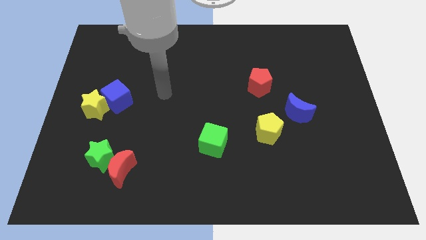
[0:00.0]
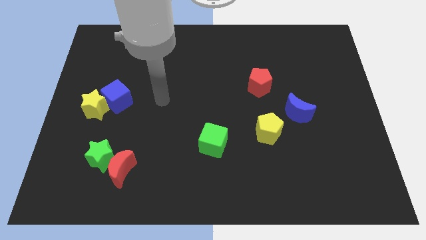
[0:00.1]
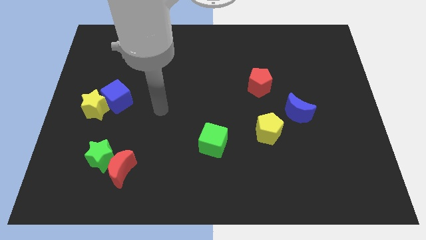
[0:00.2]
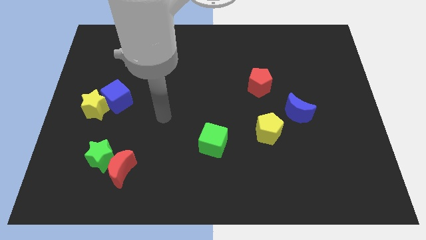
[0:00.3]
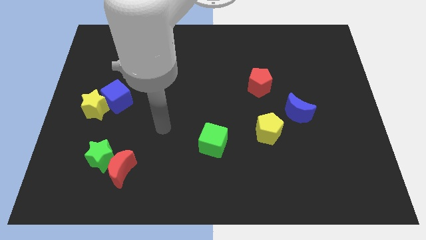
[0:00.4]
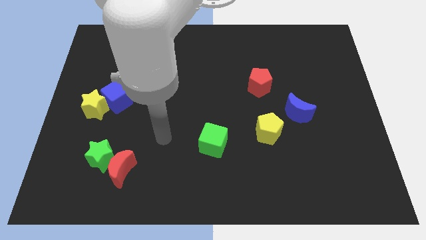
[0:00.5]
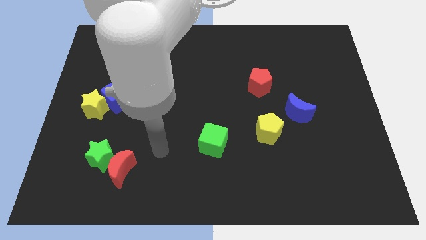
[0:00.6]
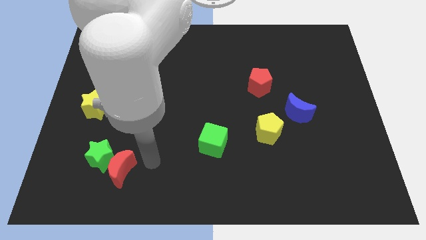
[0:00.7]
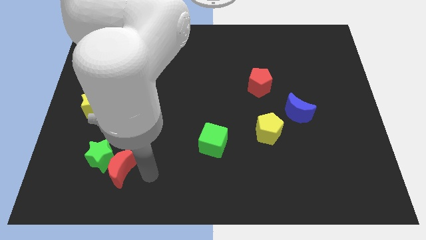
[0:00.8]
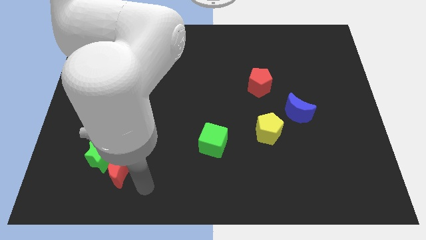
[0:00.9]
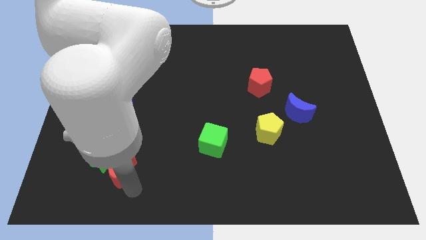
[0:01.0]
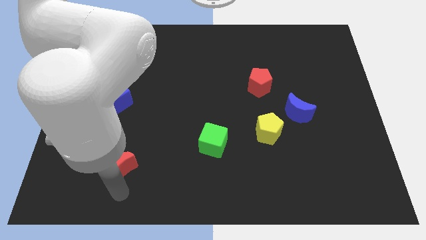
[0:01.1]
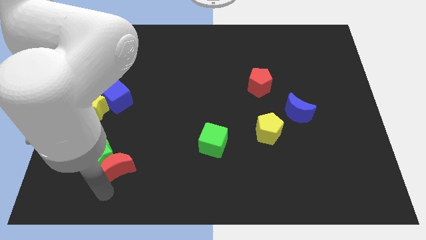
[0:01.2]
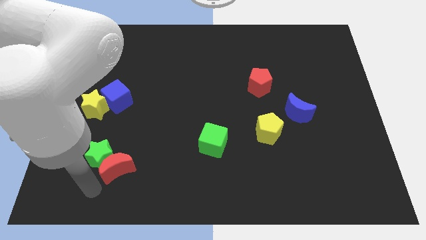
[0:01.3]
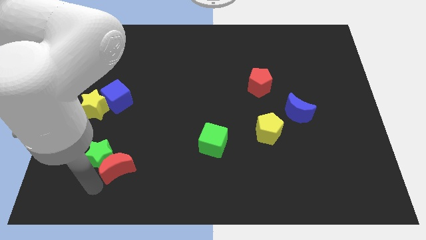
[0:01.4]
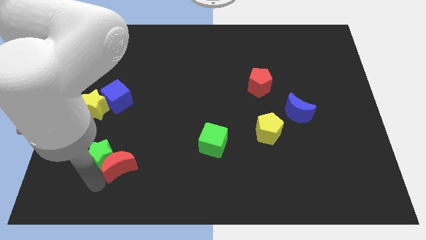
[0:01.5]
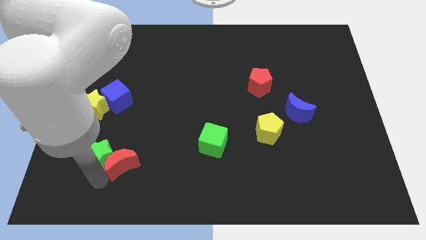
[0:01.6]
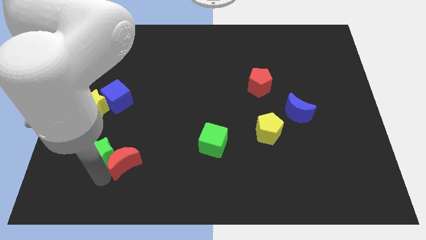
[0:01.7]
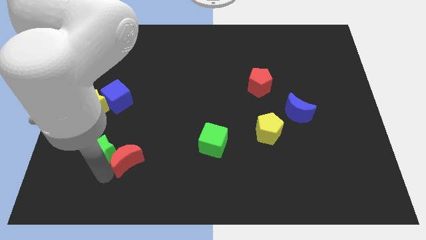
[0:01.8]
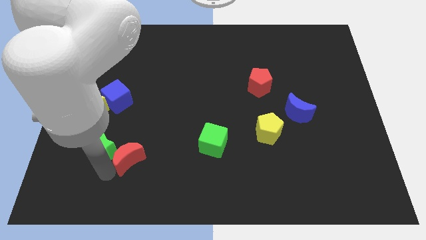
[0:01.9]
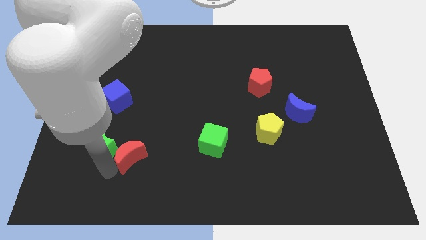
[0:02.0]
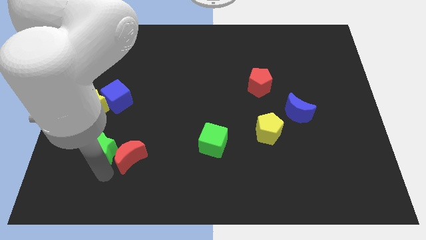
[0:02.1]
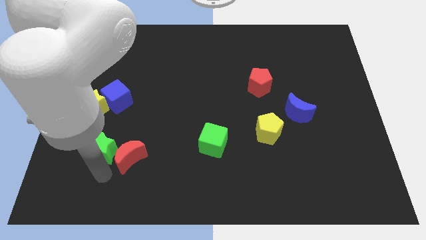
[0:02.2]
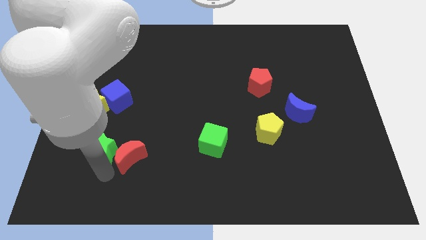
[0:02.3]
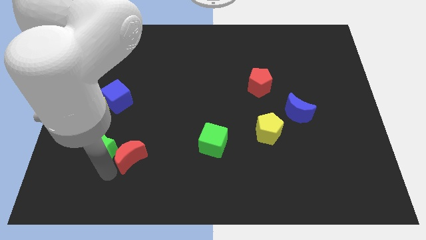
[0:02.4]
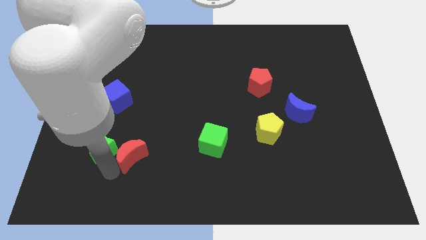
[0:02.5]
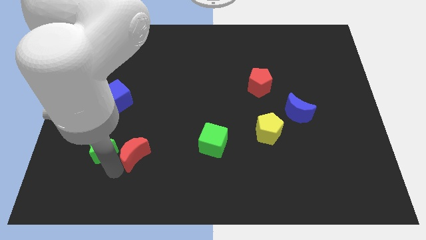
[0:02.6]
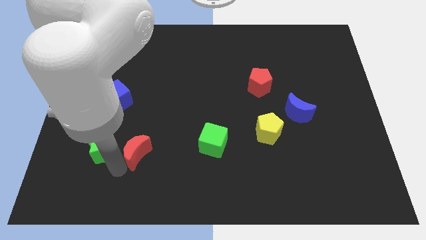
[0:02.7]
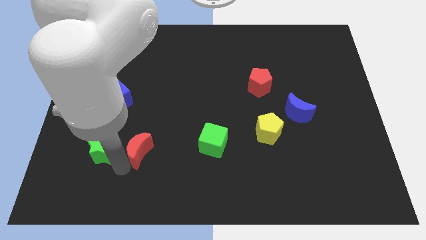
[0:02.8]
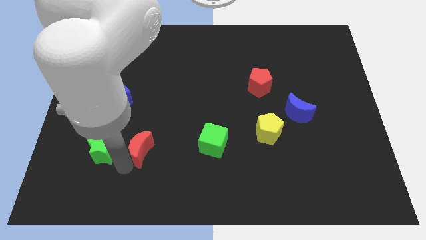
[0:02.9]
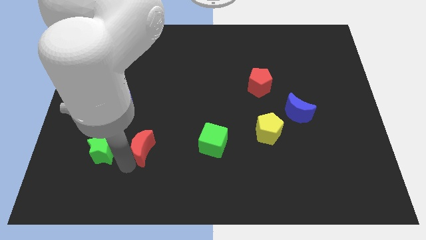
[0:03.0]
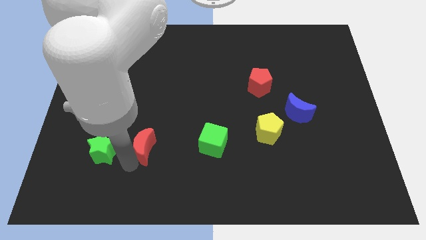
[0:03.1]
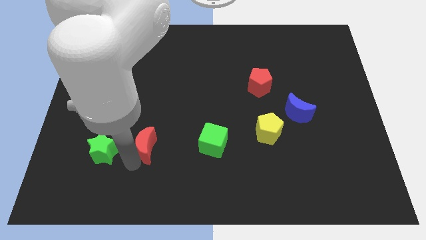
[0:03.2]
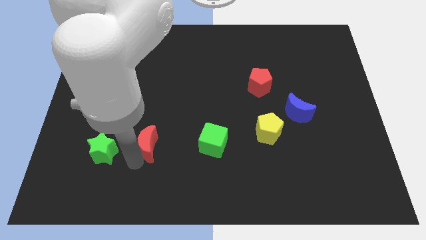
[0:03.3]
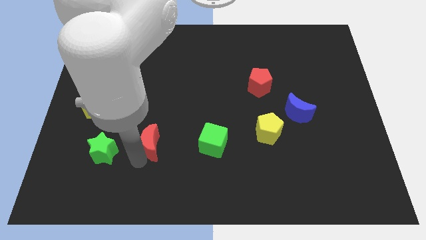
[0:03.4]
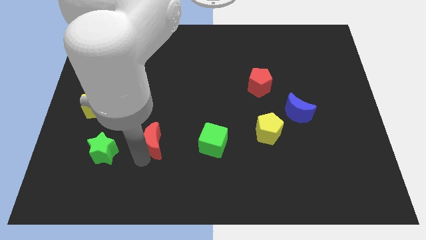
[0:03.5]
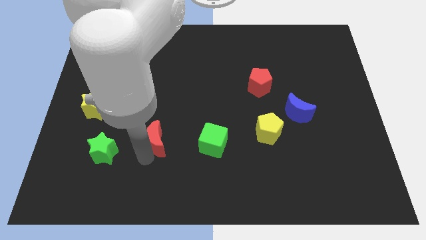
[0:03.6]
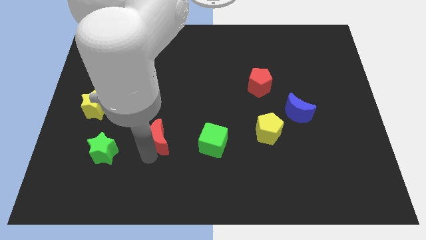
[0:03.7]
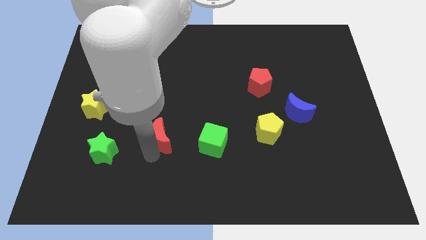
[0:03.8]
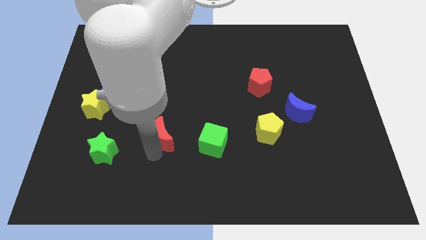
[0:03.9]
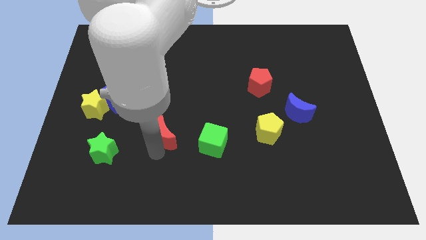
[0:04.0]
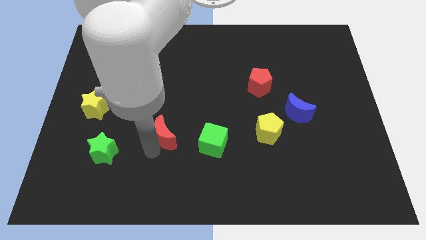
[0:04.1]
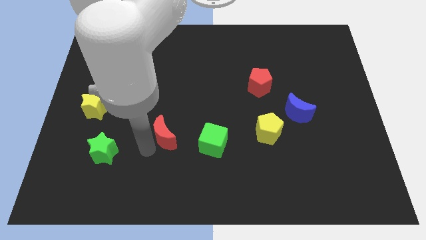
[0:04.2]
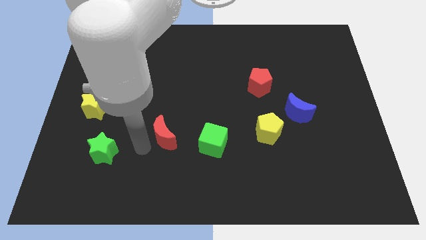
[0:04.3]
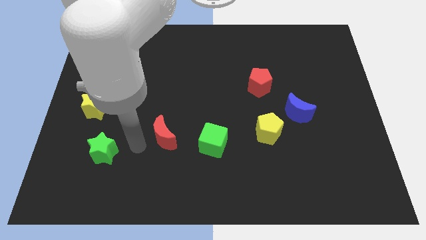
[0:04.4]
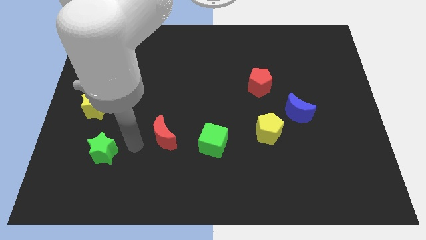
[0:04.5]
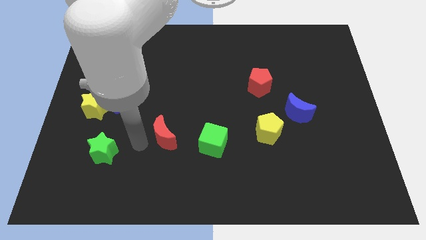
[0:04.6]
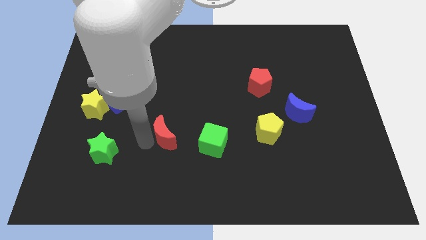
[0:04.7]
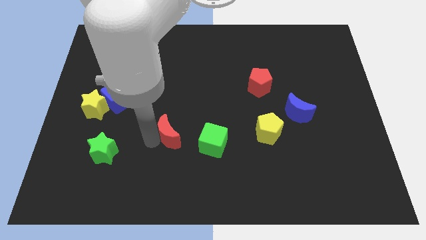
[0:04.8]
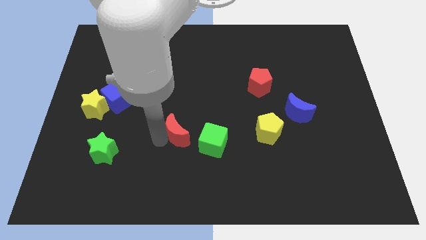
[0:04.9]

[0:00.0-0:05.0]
push the red moon to the top left of the green cube

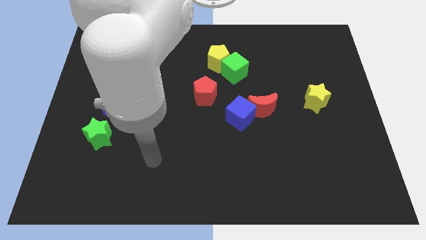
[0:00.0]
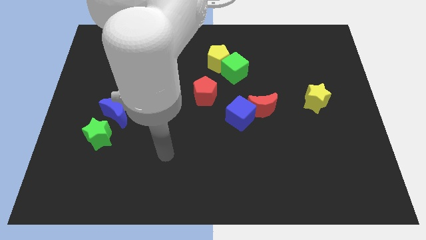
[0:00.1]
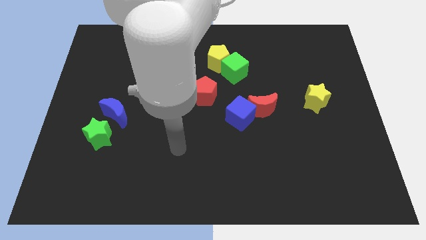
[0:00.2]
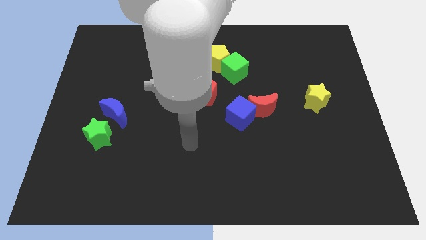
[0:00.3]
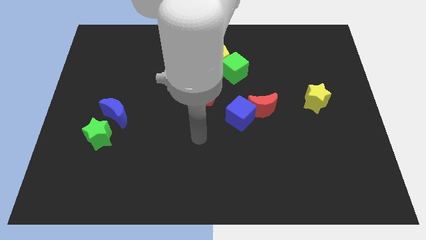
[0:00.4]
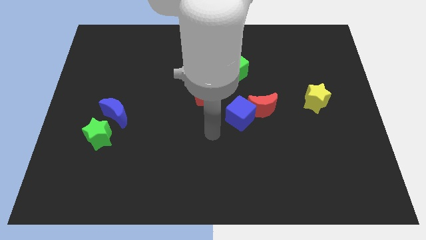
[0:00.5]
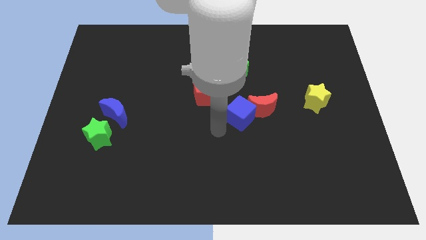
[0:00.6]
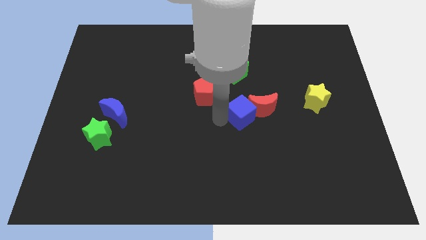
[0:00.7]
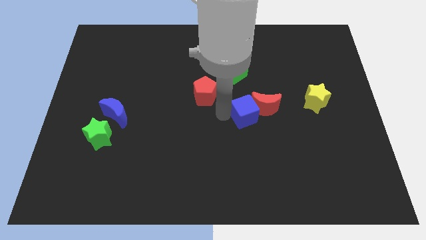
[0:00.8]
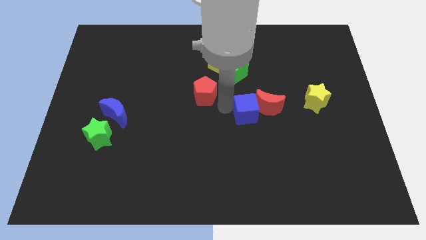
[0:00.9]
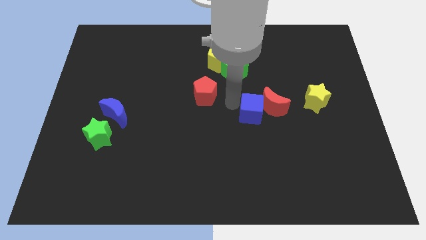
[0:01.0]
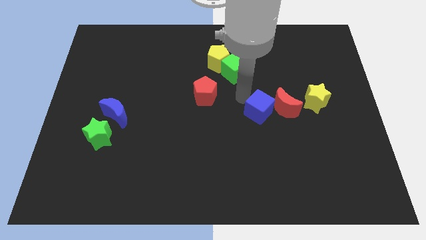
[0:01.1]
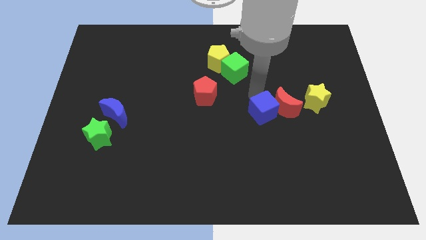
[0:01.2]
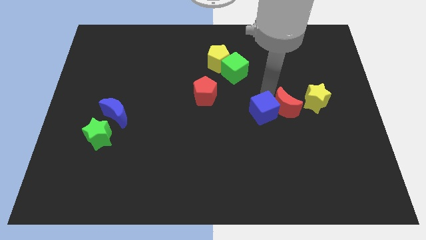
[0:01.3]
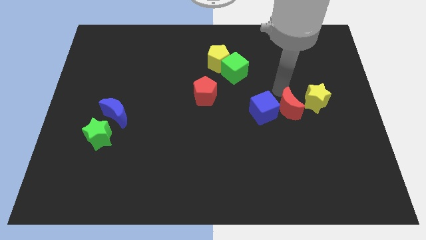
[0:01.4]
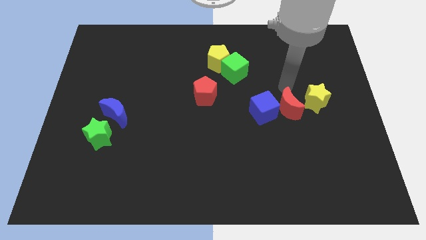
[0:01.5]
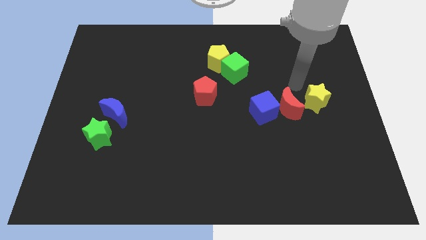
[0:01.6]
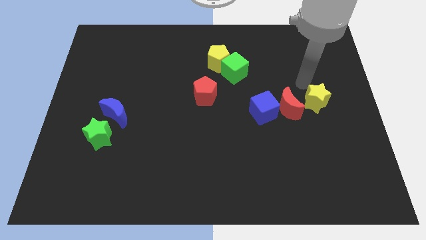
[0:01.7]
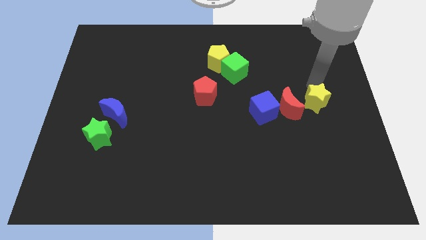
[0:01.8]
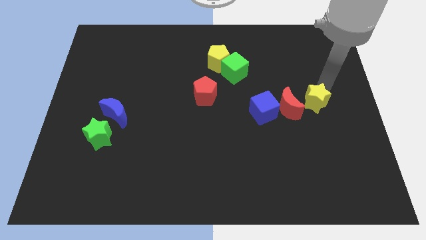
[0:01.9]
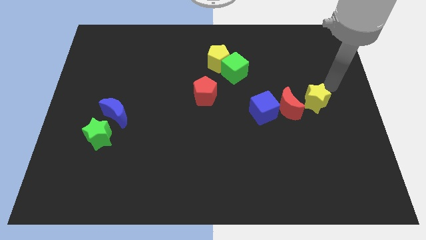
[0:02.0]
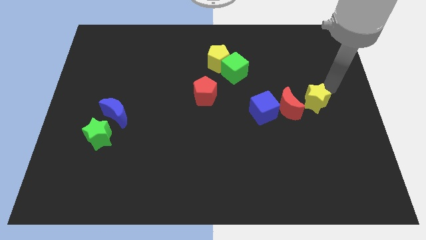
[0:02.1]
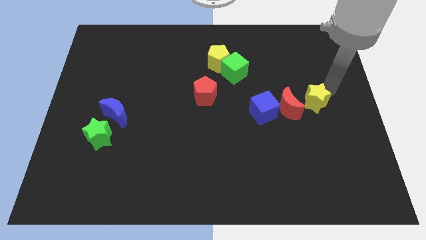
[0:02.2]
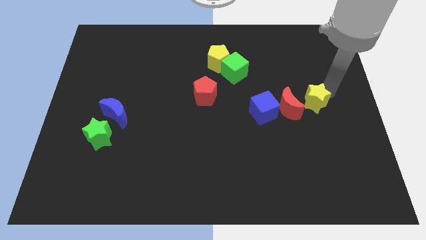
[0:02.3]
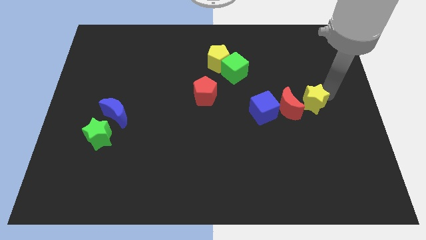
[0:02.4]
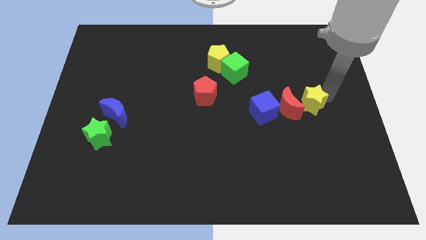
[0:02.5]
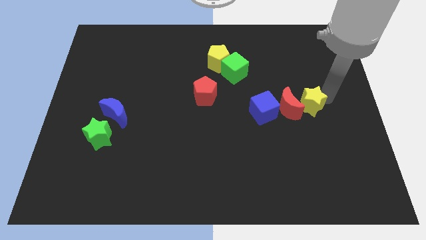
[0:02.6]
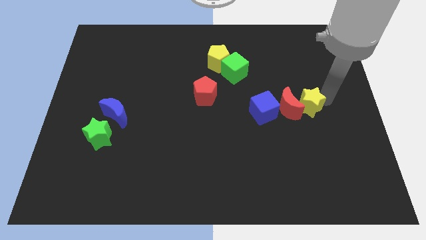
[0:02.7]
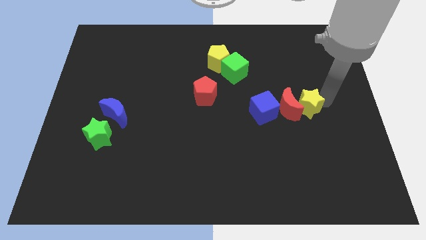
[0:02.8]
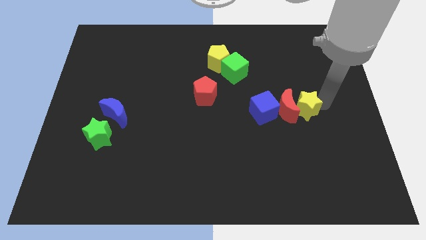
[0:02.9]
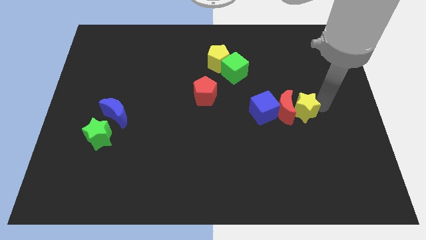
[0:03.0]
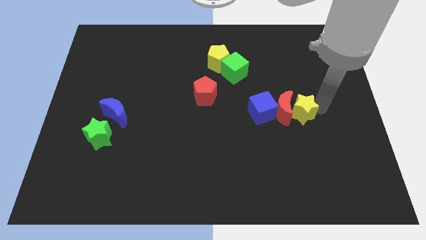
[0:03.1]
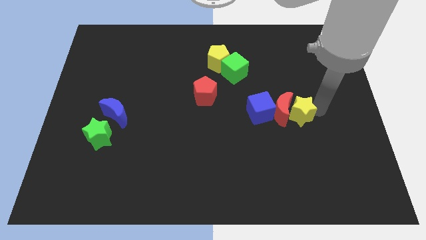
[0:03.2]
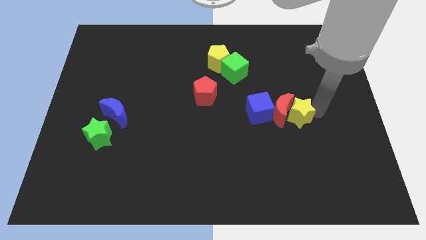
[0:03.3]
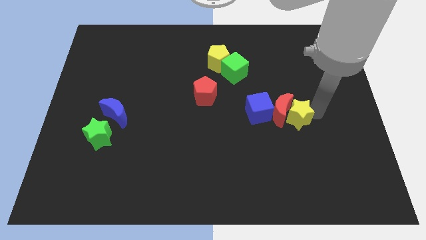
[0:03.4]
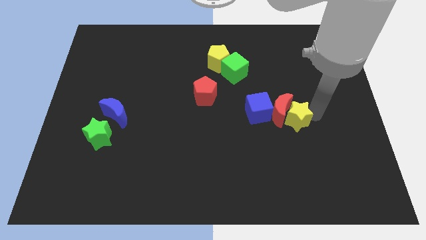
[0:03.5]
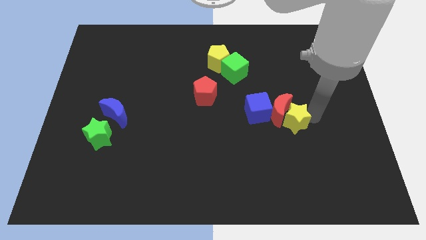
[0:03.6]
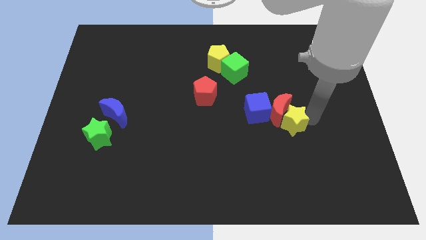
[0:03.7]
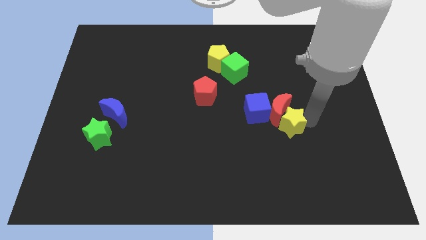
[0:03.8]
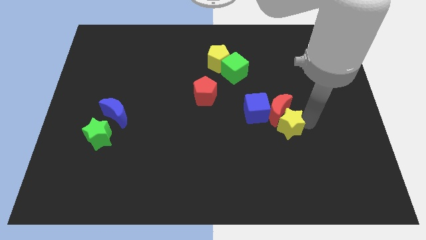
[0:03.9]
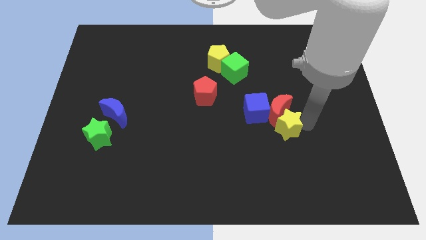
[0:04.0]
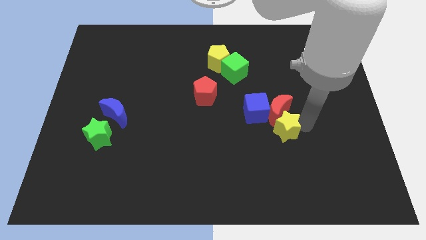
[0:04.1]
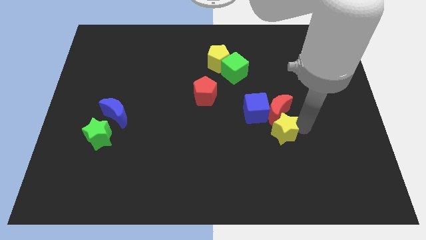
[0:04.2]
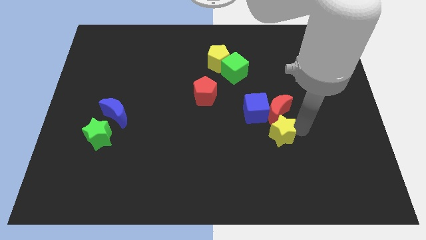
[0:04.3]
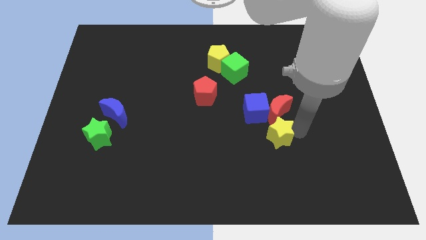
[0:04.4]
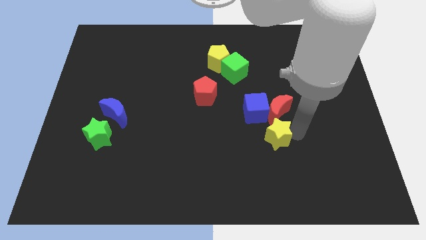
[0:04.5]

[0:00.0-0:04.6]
slide the yellow star to the bottom side of the blue cube
